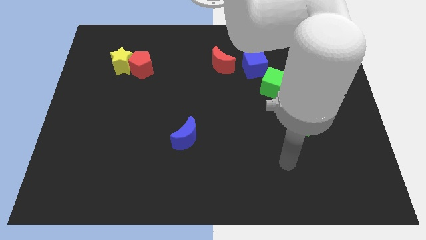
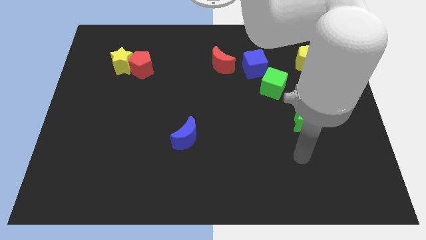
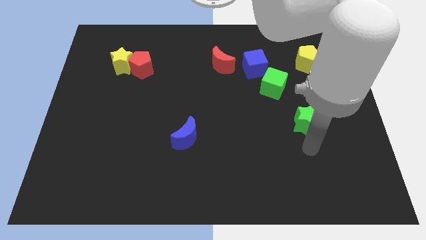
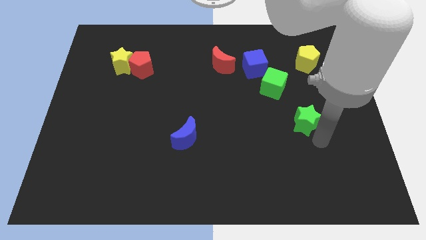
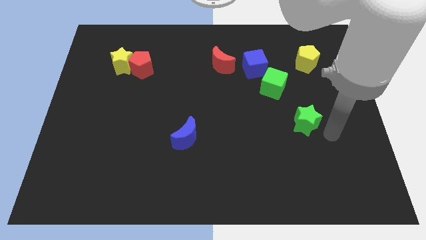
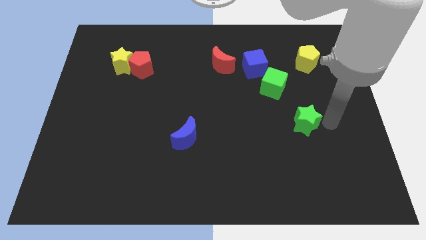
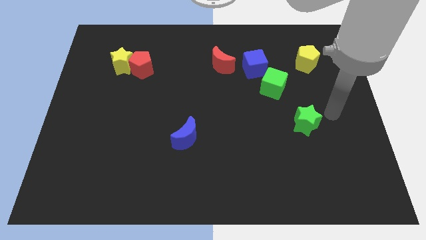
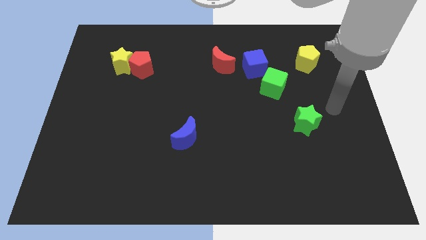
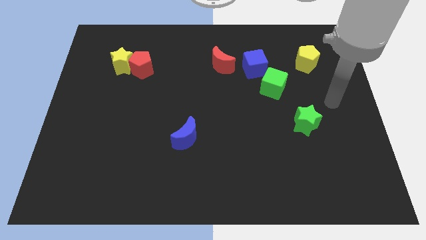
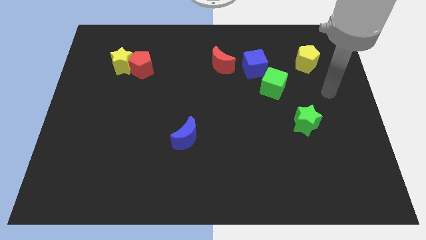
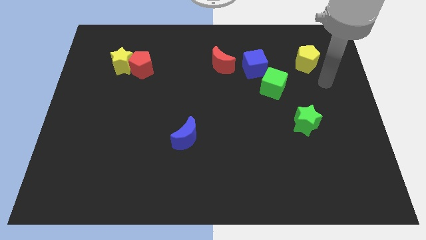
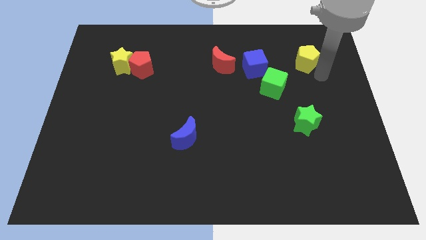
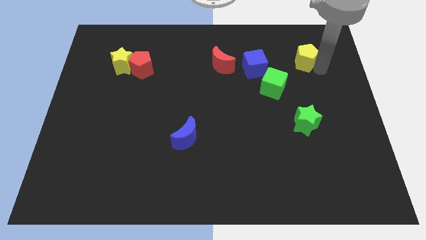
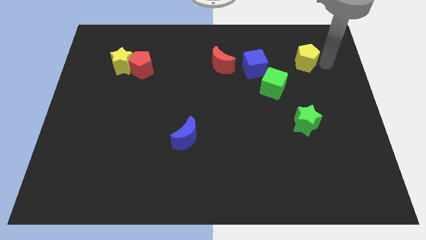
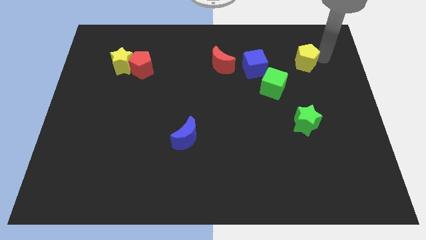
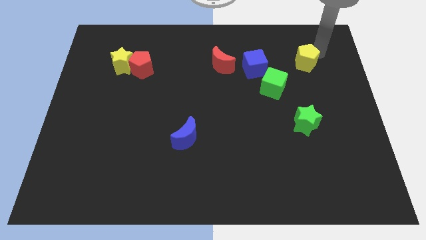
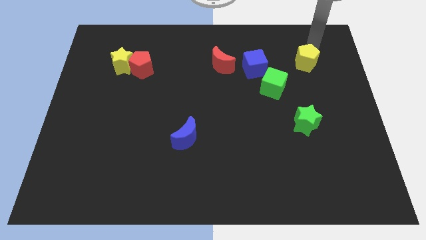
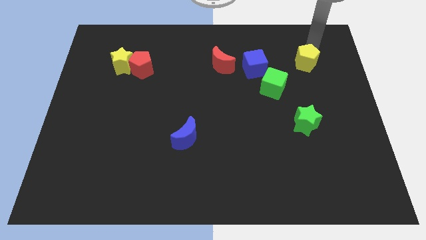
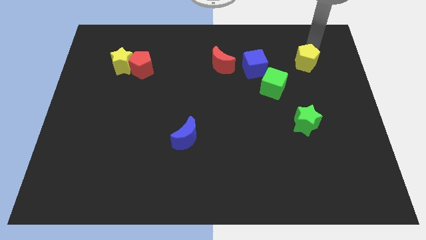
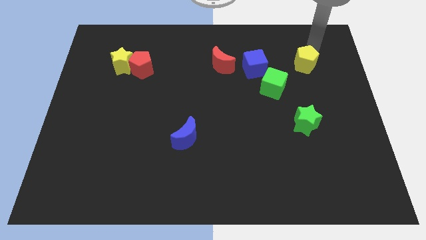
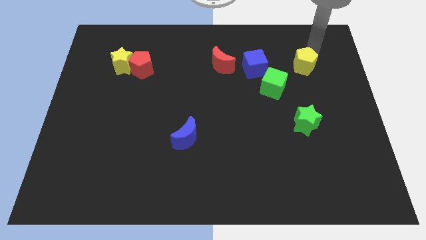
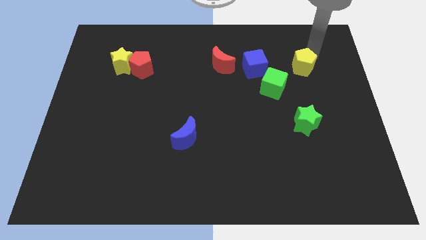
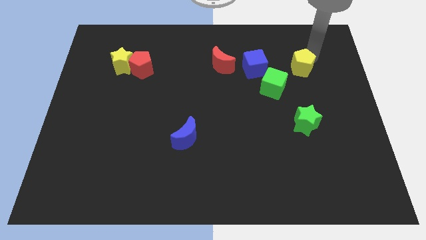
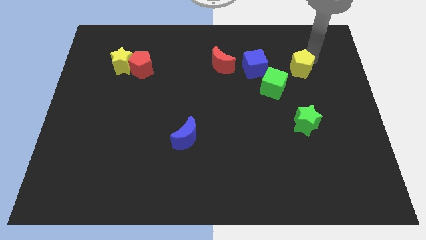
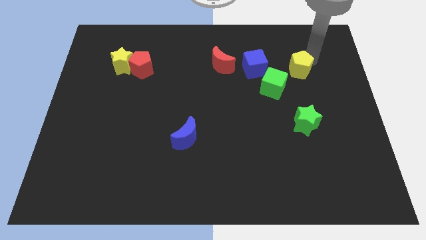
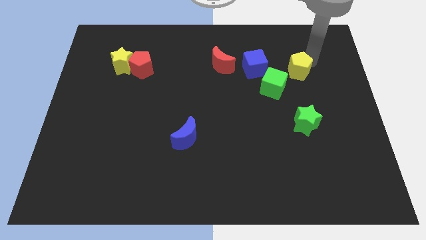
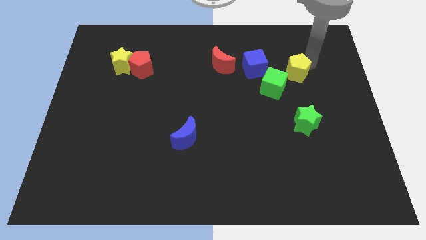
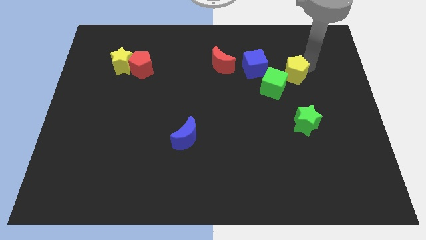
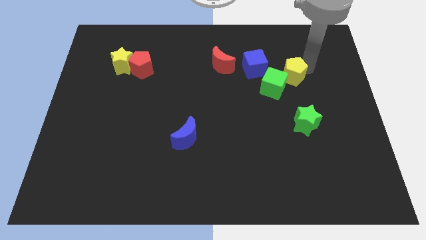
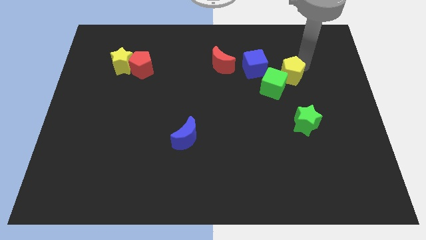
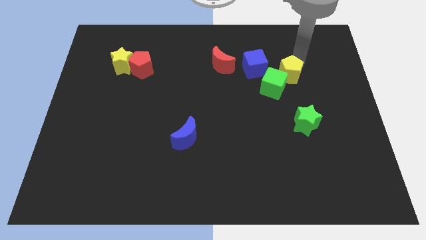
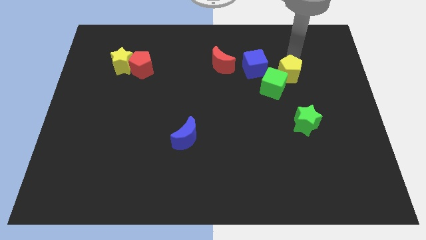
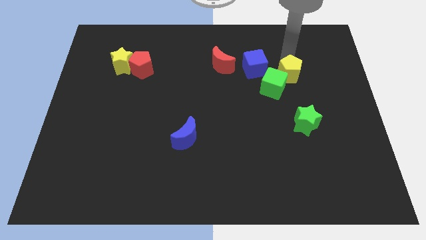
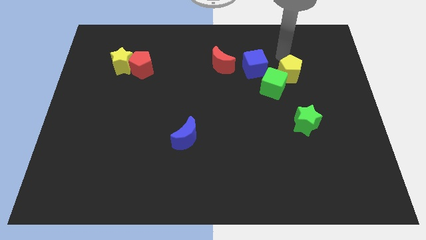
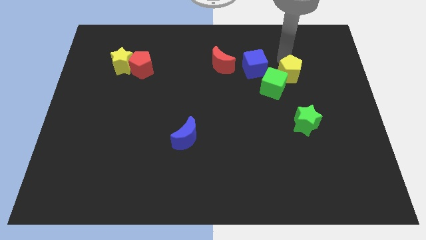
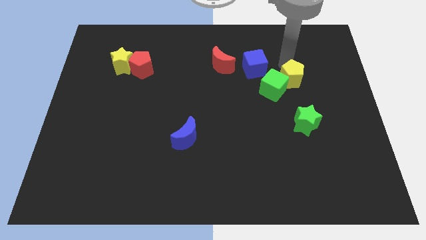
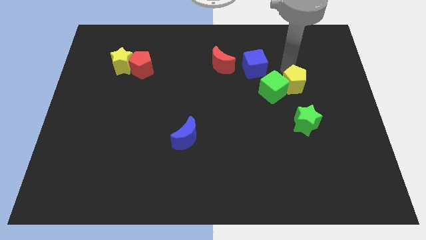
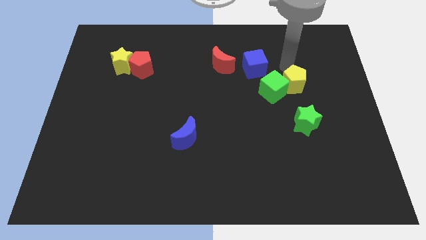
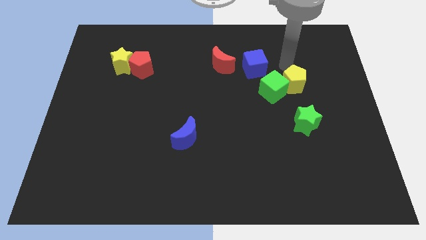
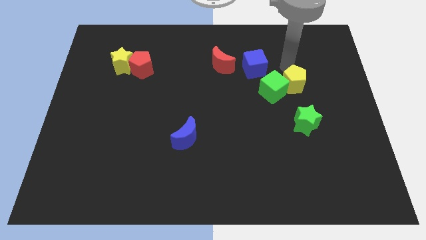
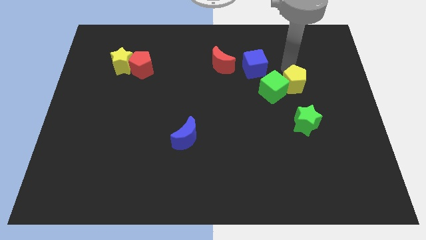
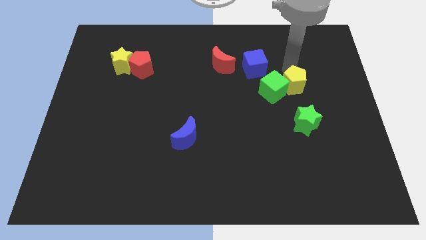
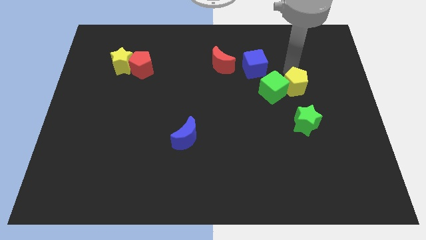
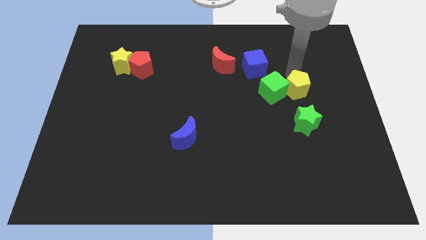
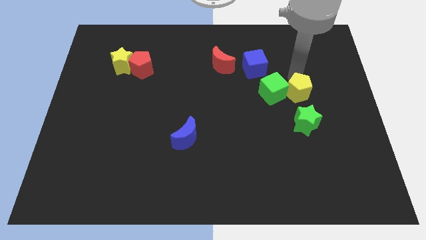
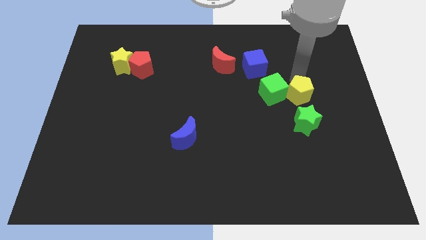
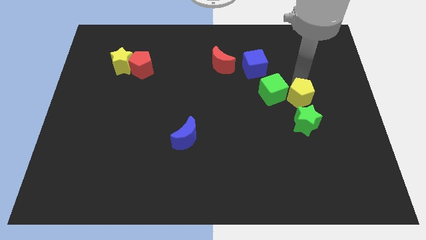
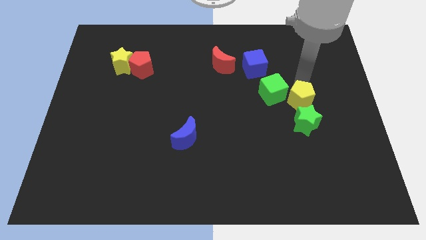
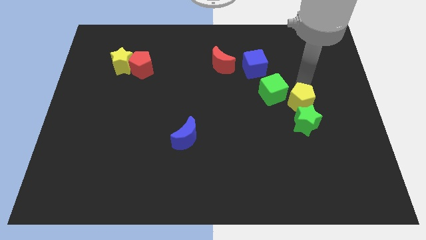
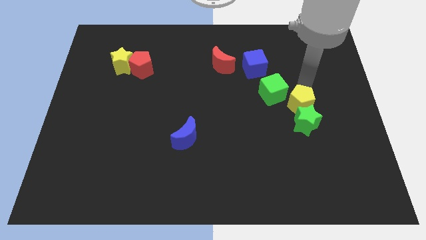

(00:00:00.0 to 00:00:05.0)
move the yellow pentagon towards the green star

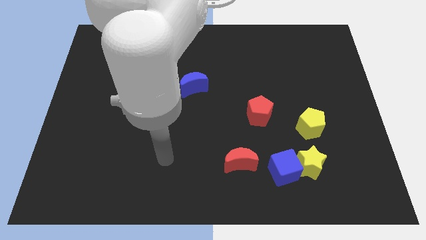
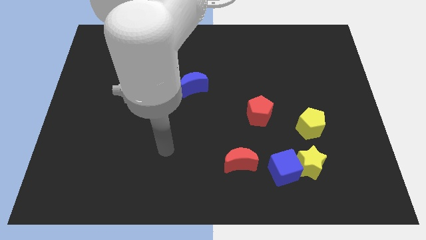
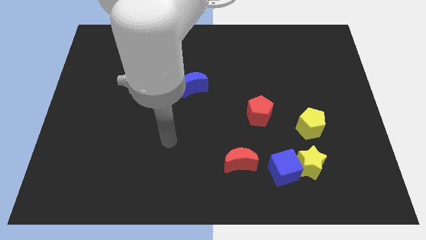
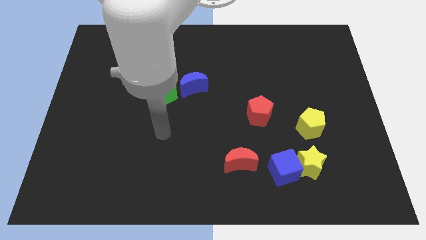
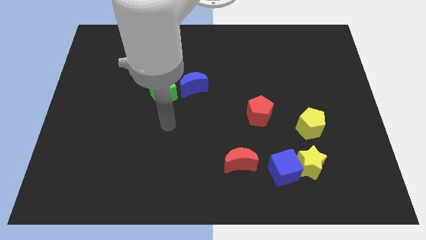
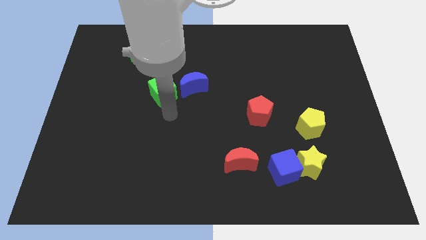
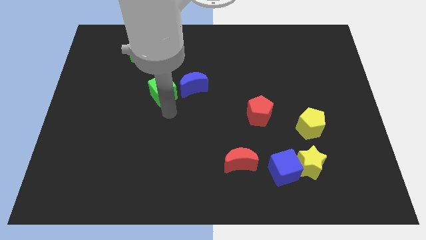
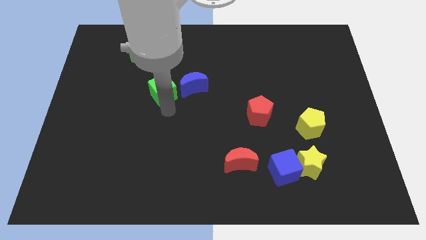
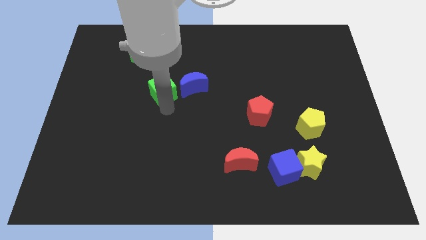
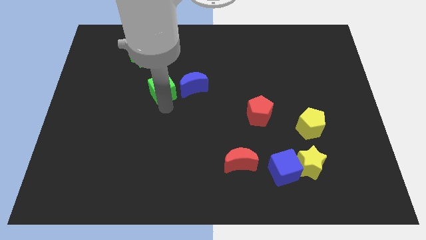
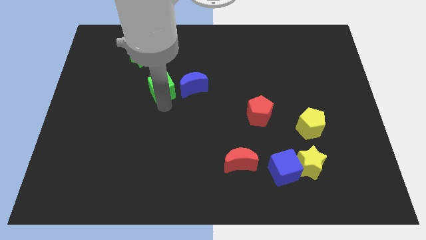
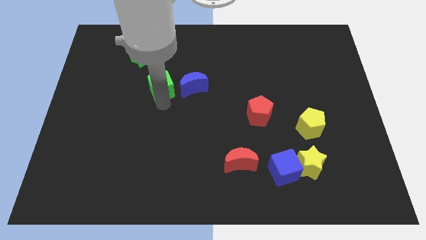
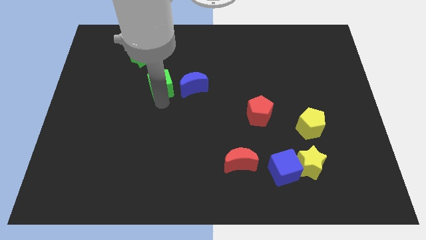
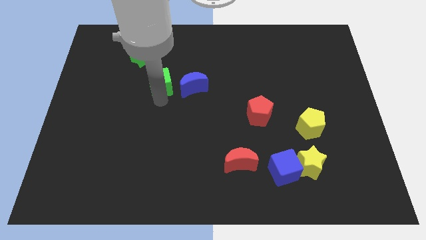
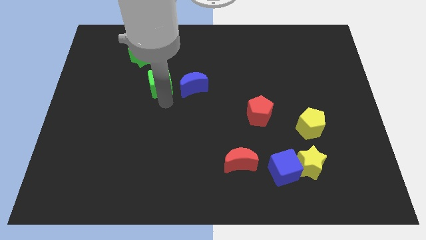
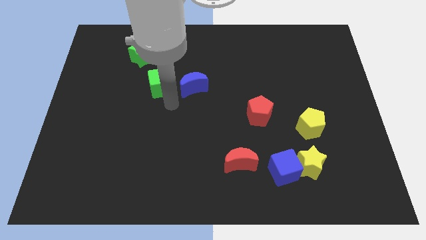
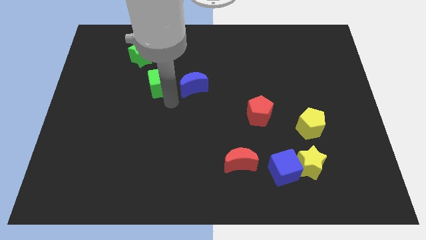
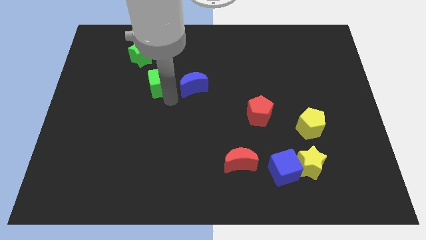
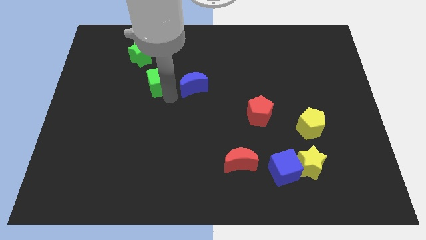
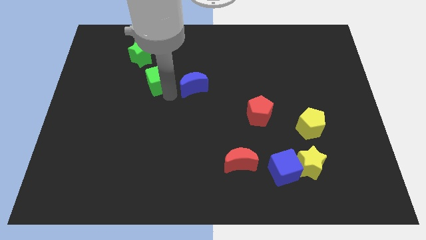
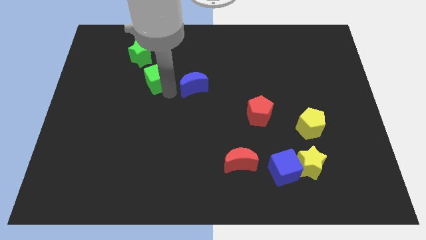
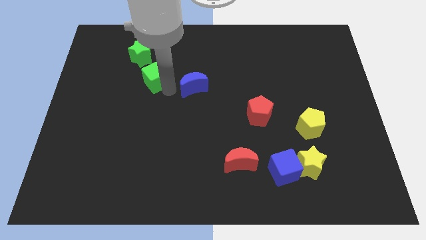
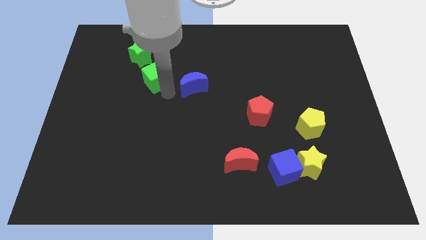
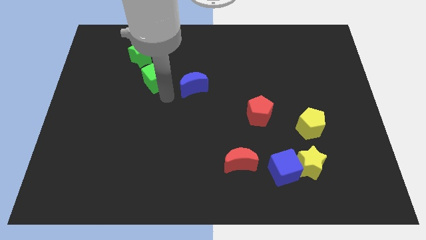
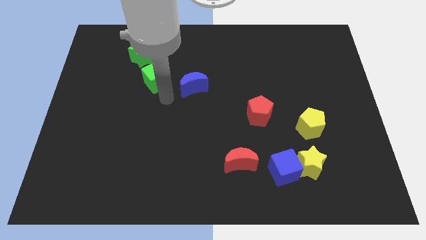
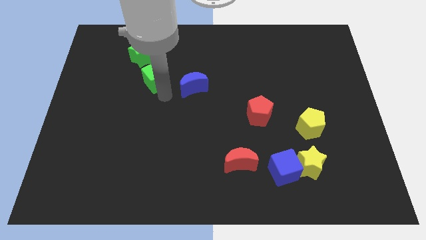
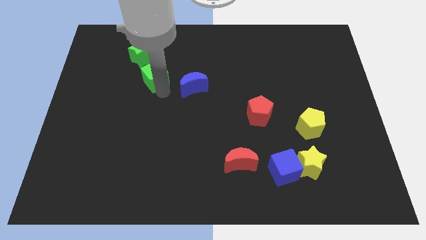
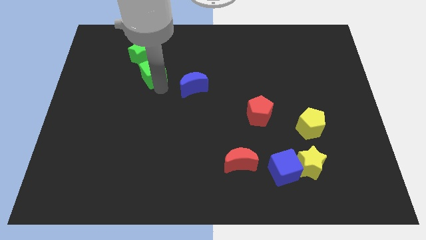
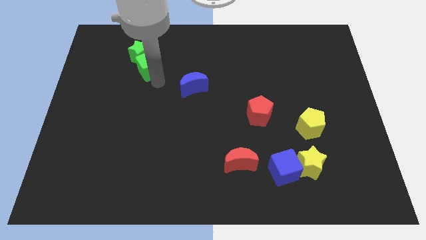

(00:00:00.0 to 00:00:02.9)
push the green cube towards the green star
